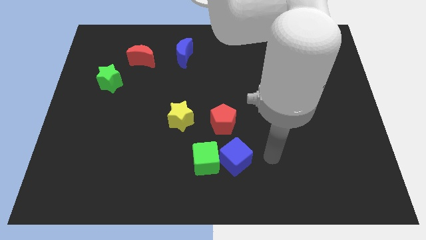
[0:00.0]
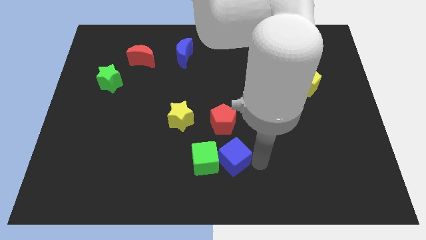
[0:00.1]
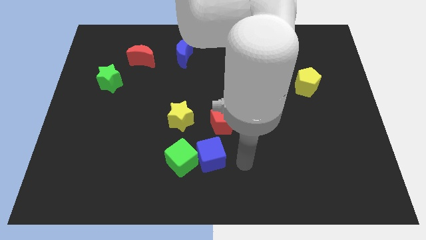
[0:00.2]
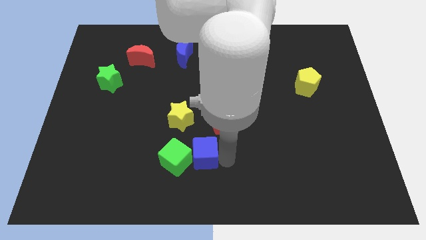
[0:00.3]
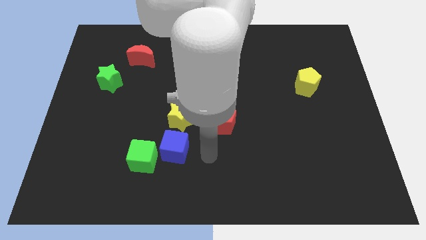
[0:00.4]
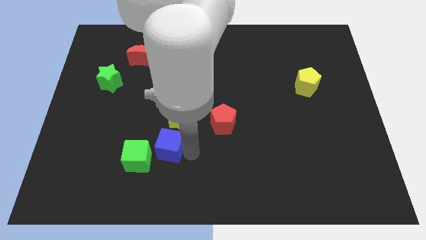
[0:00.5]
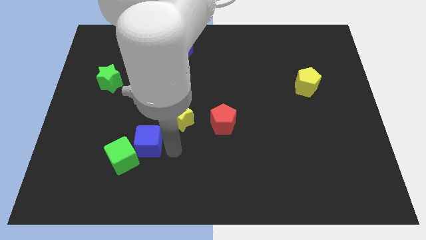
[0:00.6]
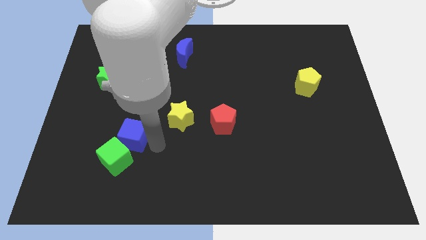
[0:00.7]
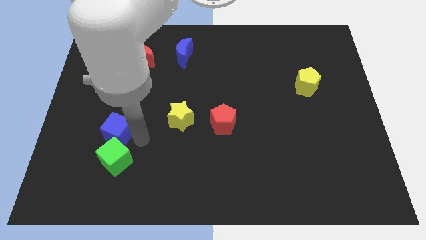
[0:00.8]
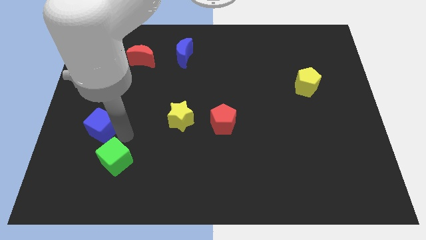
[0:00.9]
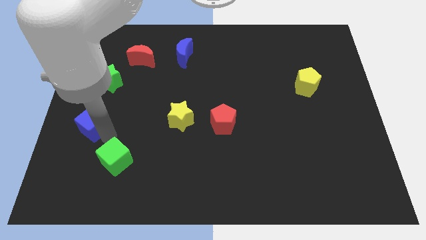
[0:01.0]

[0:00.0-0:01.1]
pull the green cube apart from the blue cube

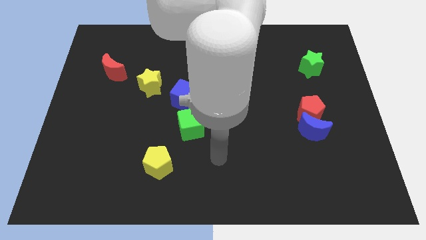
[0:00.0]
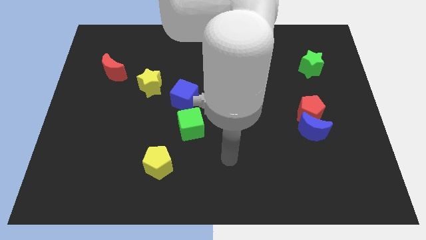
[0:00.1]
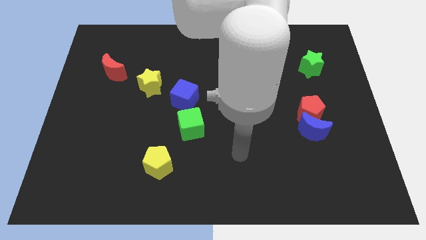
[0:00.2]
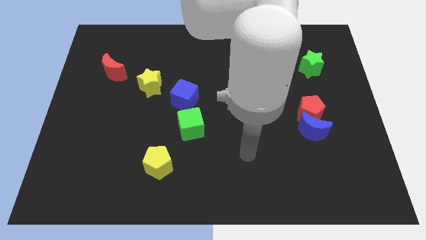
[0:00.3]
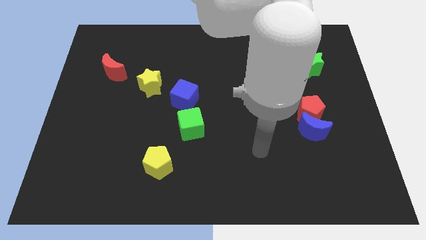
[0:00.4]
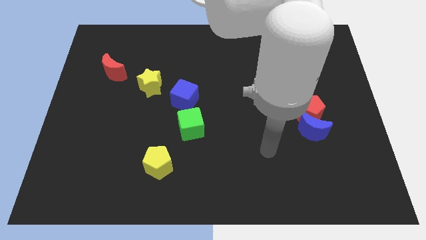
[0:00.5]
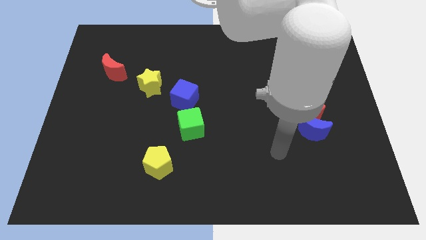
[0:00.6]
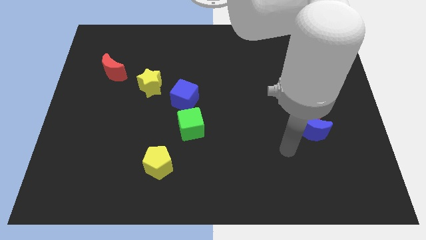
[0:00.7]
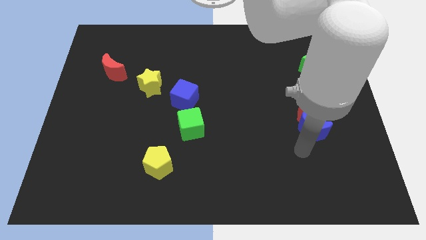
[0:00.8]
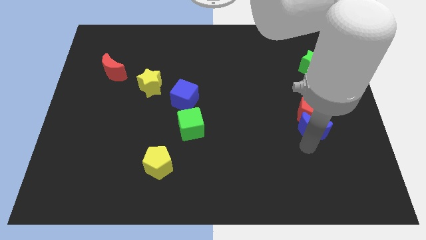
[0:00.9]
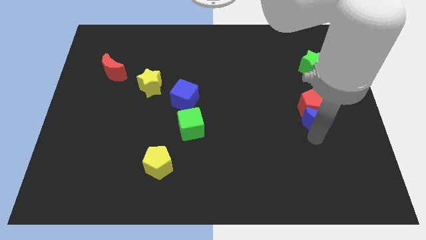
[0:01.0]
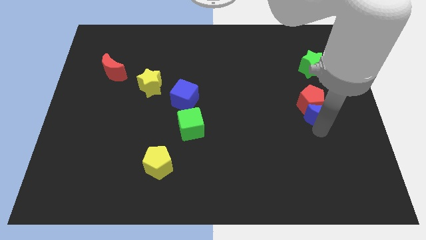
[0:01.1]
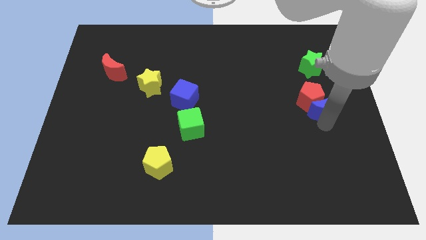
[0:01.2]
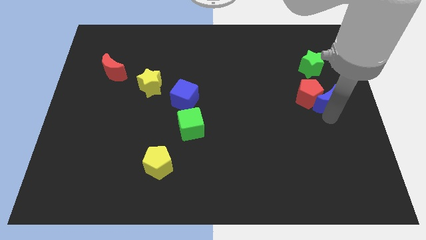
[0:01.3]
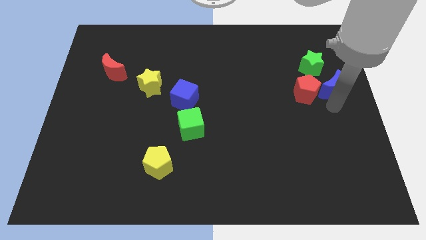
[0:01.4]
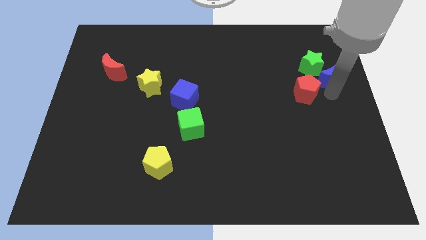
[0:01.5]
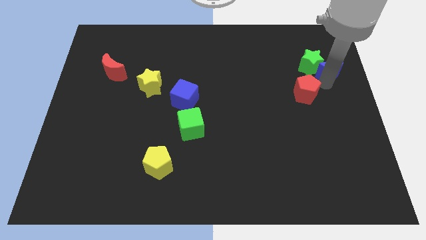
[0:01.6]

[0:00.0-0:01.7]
move the red pentagon away from the blue moon

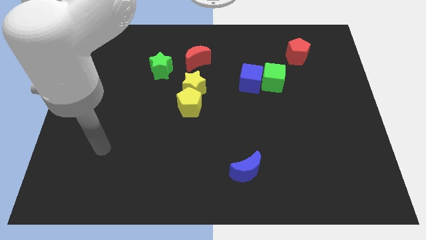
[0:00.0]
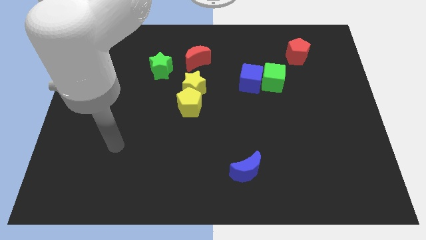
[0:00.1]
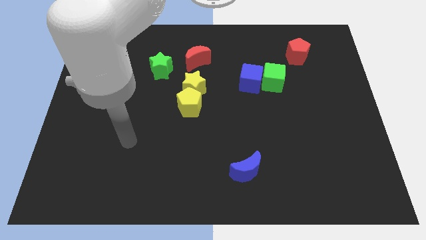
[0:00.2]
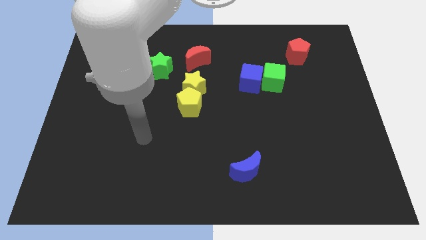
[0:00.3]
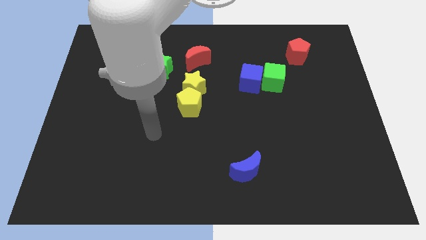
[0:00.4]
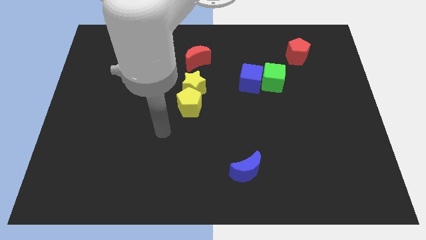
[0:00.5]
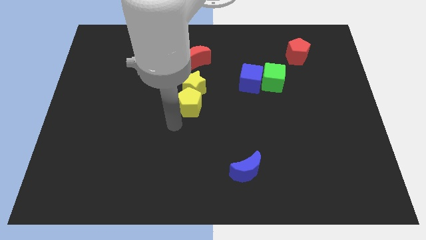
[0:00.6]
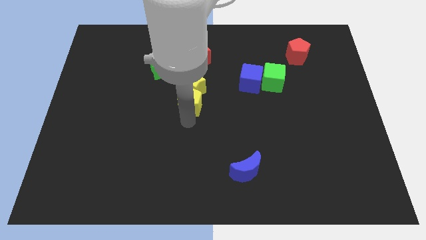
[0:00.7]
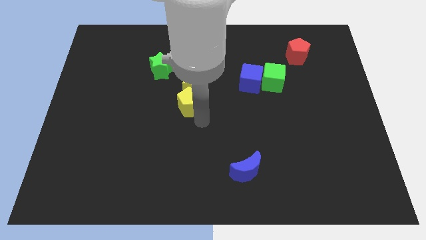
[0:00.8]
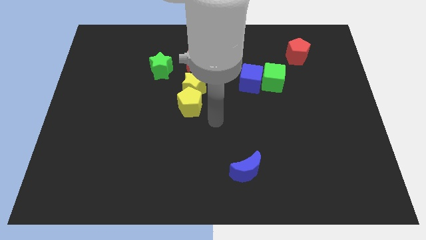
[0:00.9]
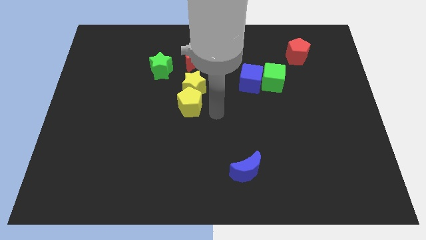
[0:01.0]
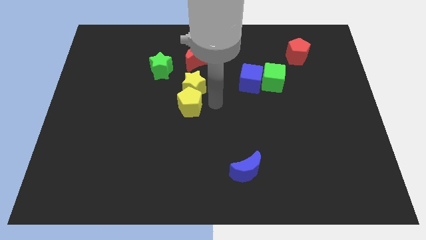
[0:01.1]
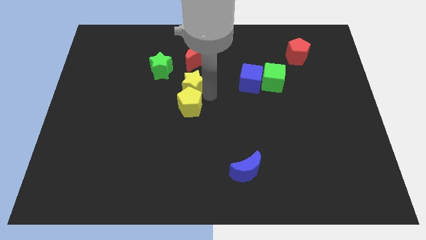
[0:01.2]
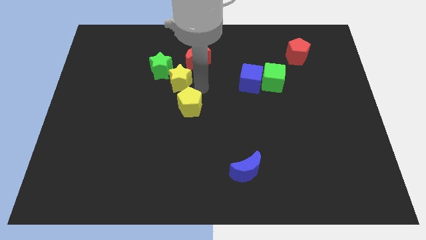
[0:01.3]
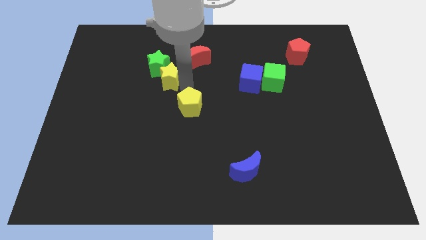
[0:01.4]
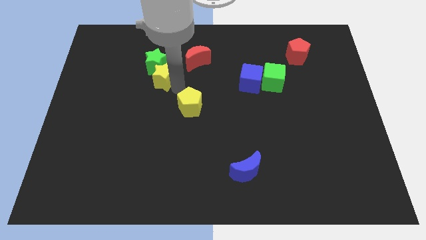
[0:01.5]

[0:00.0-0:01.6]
pull the yellow pentagon apart from the yellow star

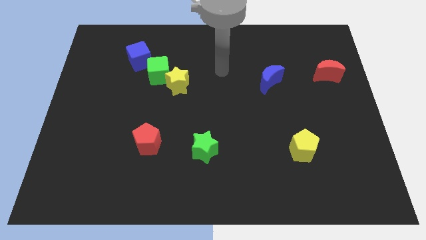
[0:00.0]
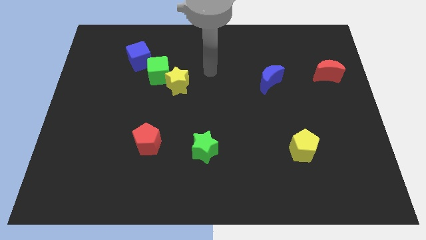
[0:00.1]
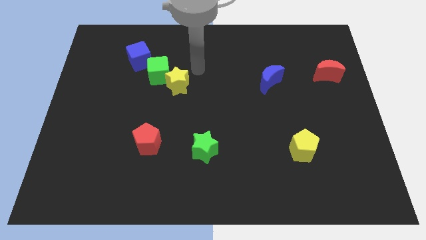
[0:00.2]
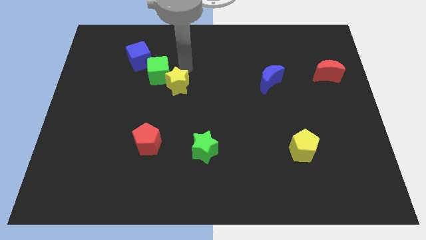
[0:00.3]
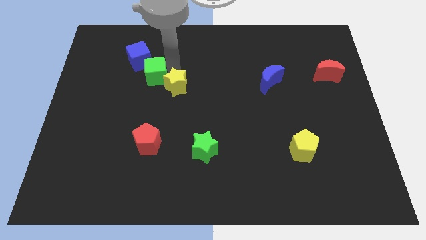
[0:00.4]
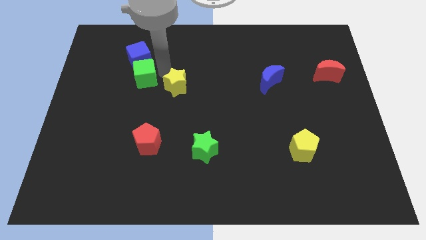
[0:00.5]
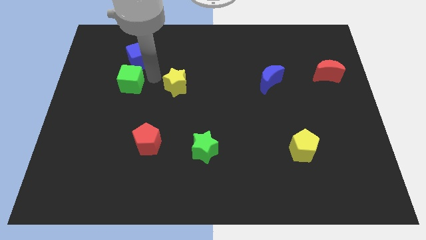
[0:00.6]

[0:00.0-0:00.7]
pull the yellow star apart from the green cube

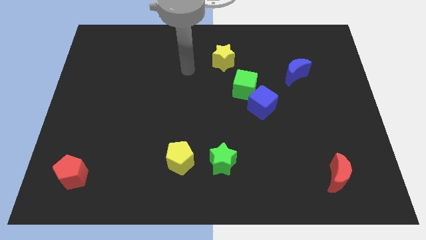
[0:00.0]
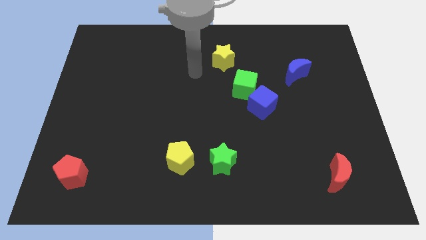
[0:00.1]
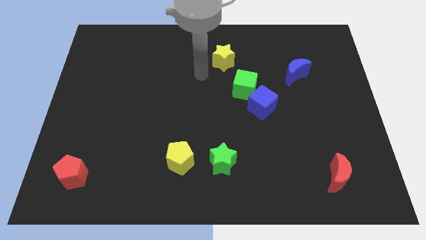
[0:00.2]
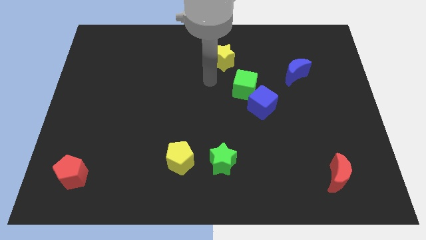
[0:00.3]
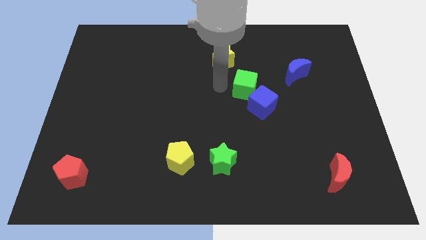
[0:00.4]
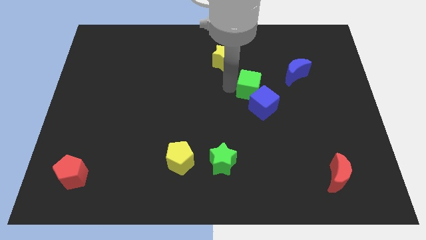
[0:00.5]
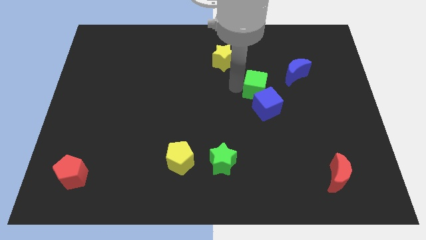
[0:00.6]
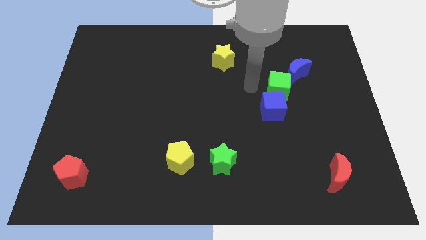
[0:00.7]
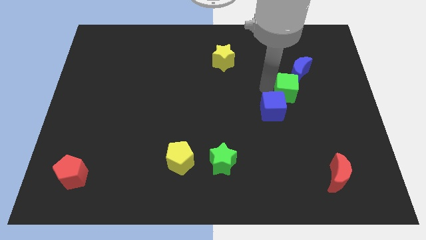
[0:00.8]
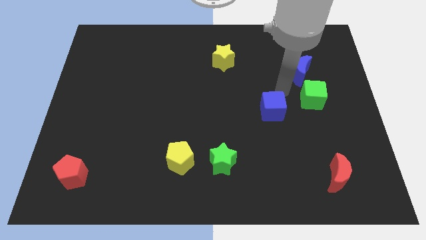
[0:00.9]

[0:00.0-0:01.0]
separate the blue cube from the green cube

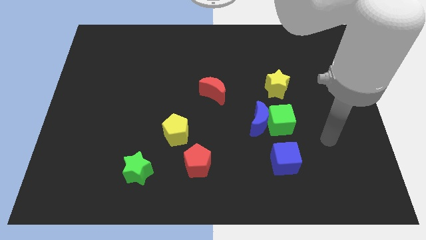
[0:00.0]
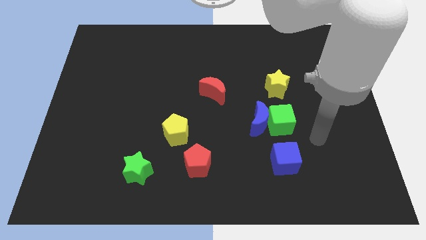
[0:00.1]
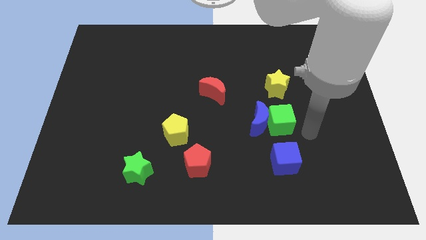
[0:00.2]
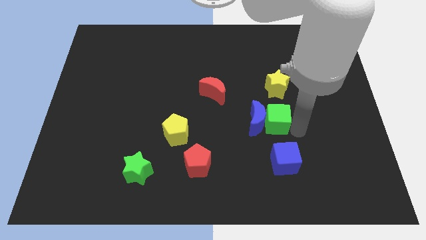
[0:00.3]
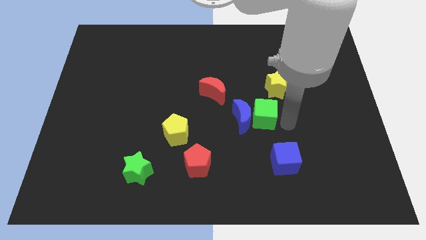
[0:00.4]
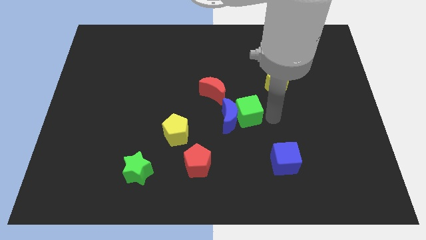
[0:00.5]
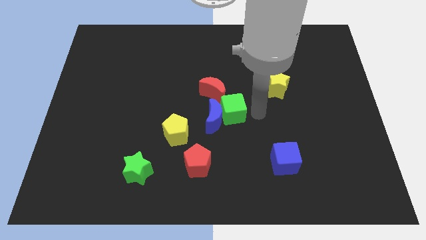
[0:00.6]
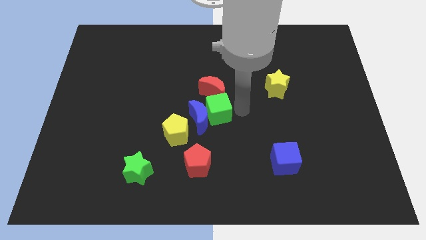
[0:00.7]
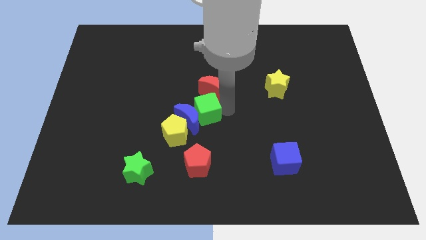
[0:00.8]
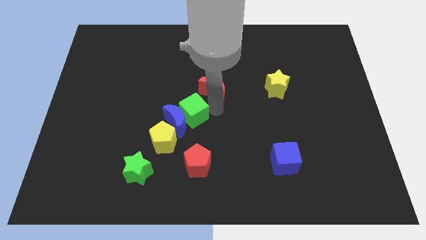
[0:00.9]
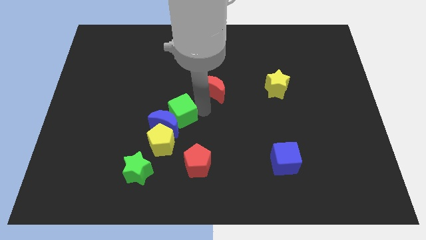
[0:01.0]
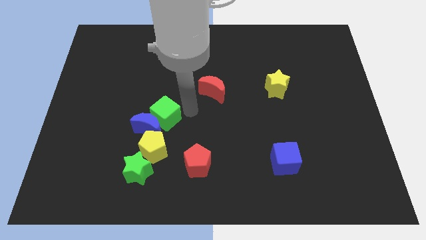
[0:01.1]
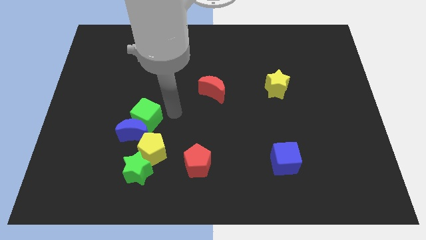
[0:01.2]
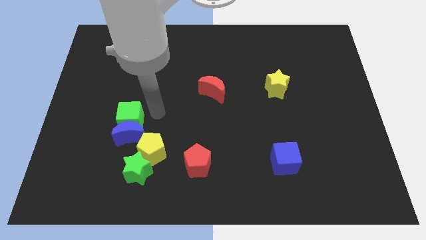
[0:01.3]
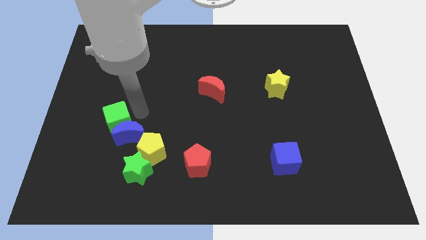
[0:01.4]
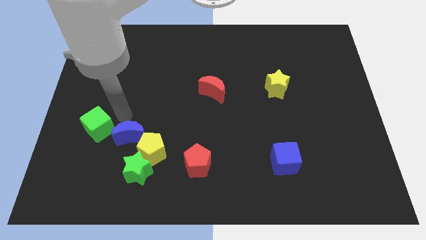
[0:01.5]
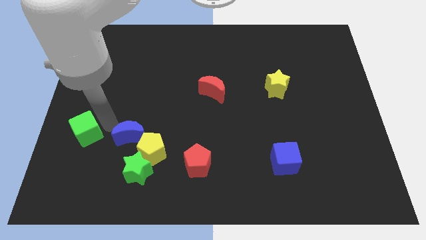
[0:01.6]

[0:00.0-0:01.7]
pull the blue moon apart from the green cube

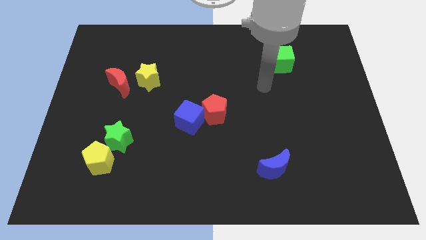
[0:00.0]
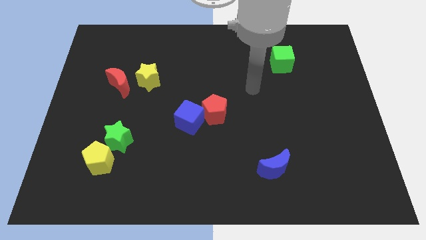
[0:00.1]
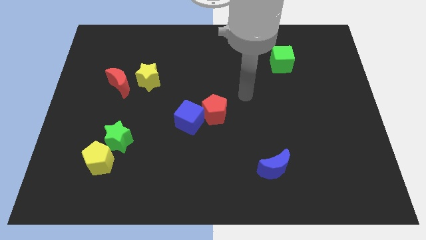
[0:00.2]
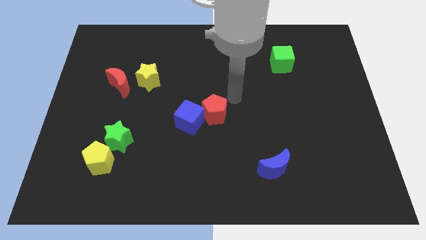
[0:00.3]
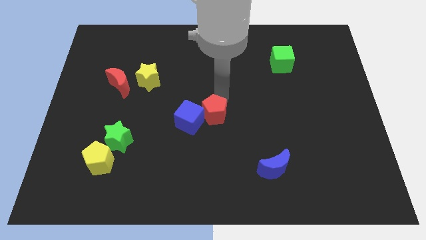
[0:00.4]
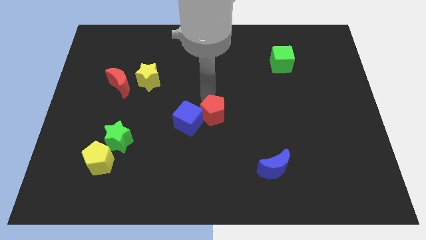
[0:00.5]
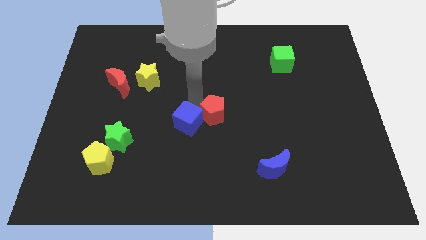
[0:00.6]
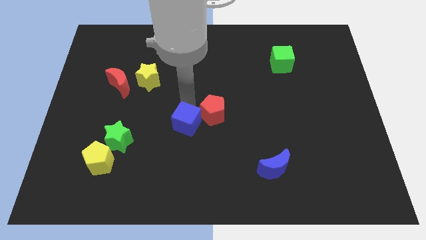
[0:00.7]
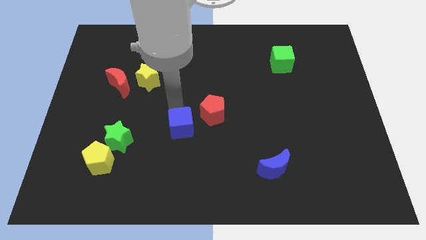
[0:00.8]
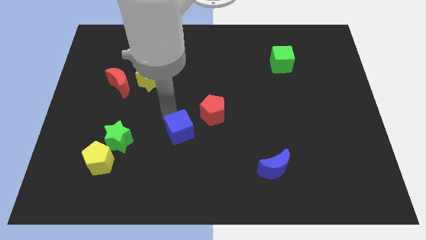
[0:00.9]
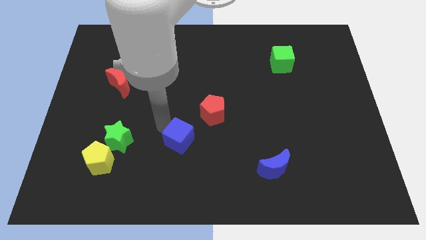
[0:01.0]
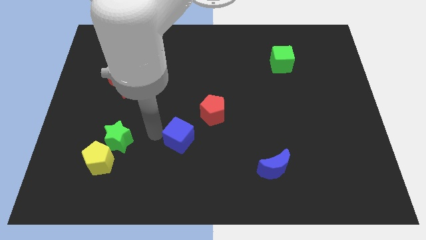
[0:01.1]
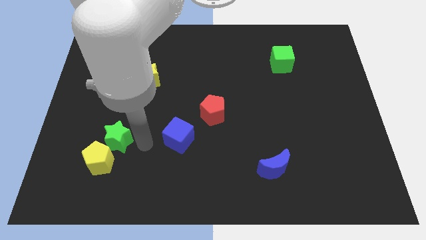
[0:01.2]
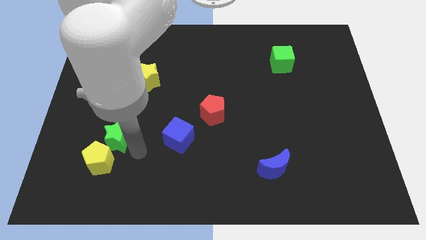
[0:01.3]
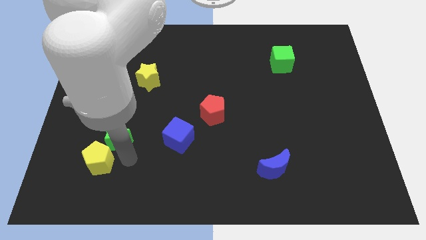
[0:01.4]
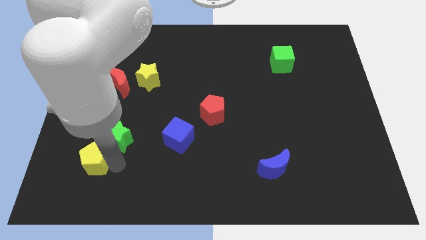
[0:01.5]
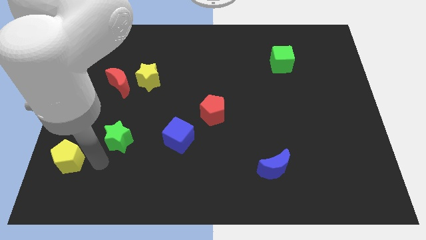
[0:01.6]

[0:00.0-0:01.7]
move the green star away from the yellow pentagon
